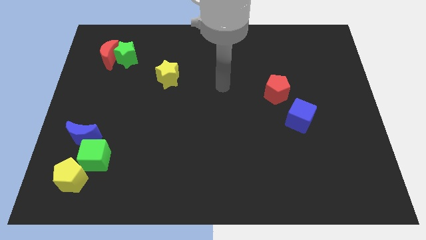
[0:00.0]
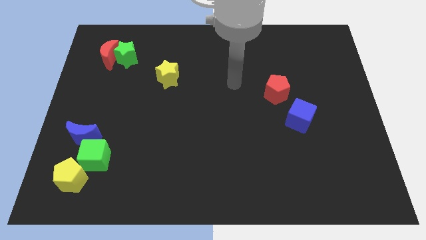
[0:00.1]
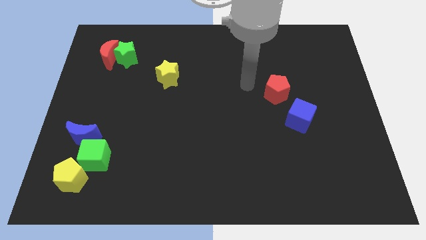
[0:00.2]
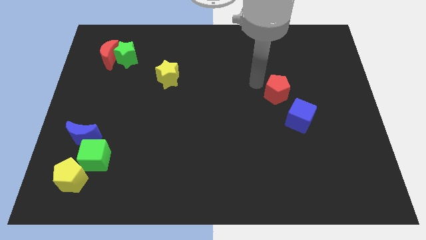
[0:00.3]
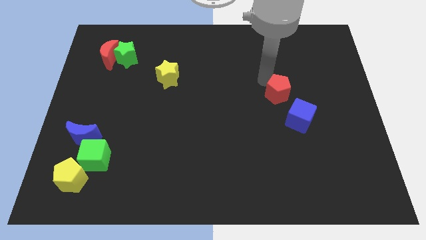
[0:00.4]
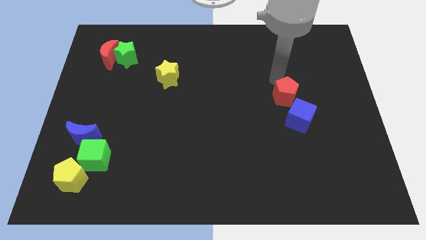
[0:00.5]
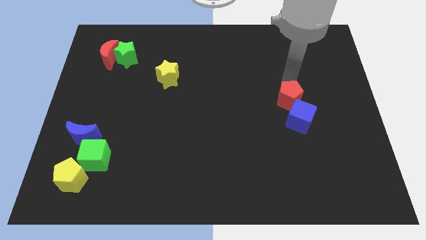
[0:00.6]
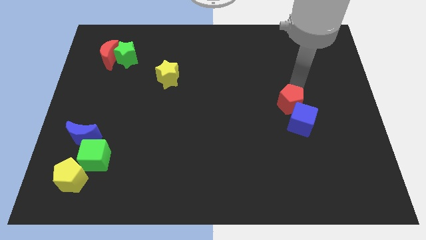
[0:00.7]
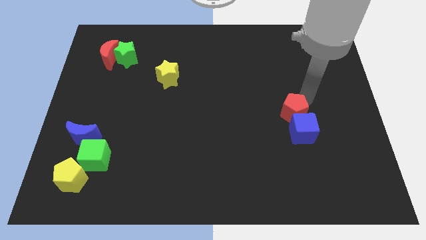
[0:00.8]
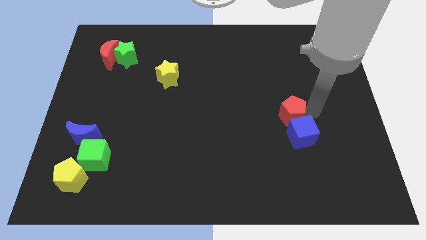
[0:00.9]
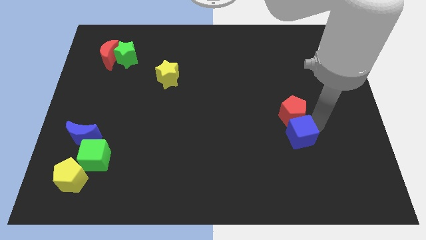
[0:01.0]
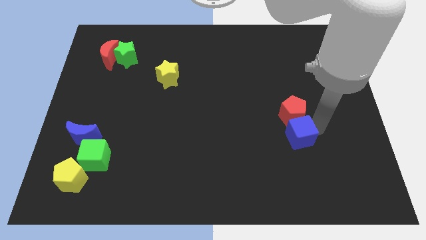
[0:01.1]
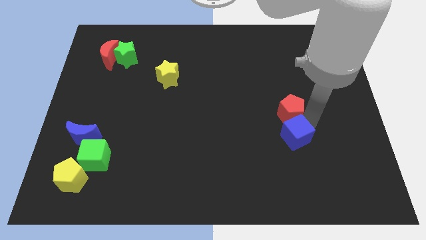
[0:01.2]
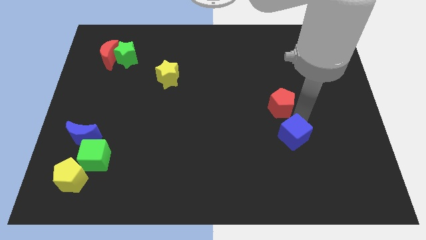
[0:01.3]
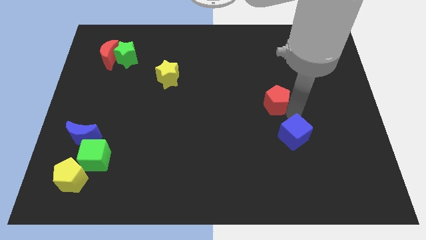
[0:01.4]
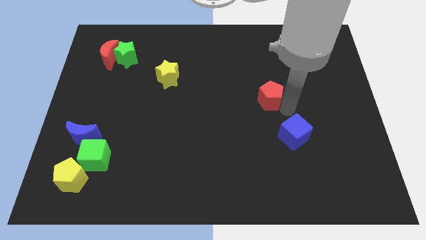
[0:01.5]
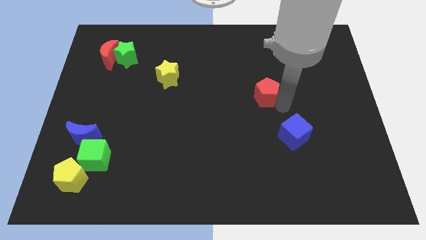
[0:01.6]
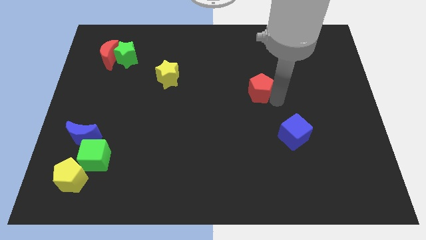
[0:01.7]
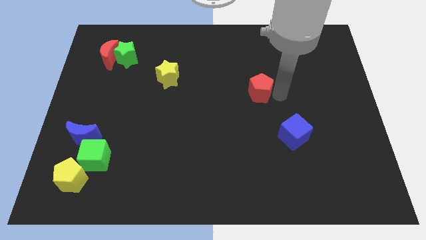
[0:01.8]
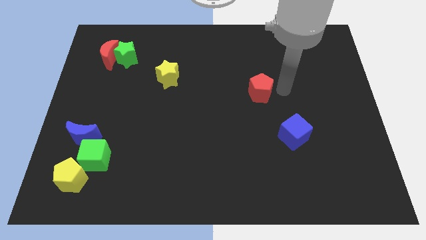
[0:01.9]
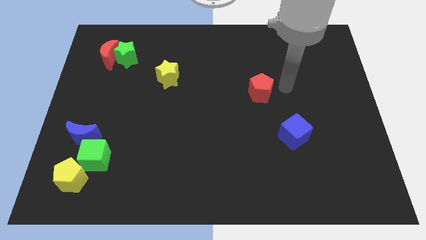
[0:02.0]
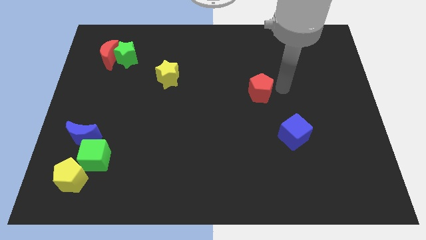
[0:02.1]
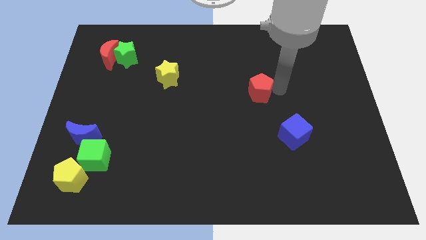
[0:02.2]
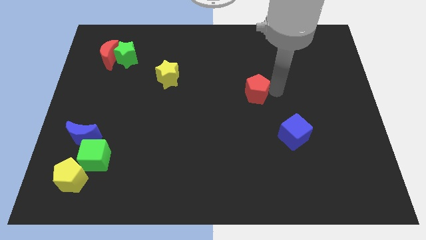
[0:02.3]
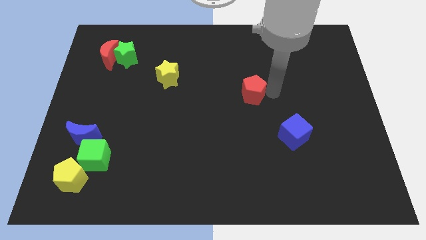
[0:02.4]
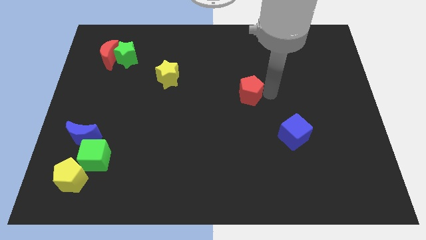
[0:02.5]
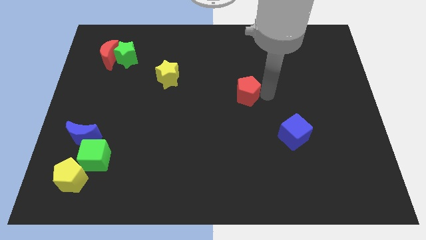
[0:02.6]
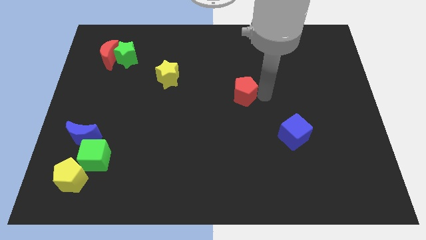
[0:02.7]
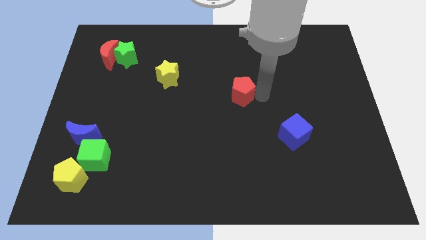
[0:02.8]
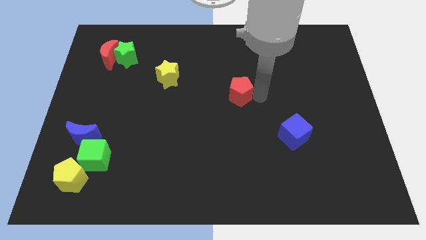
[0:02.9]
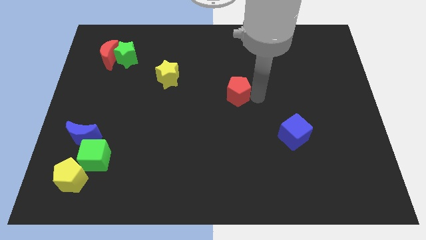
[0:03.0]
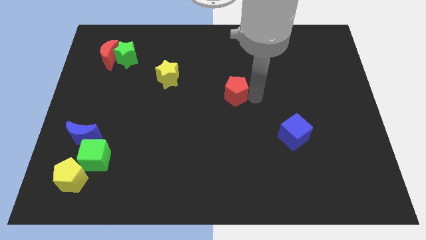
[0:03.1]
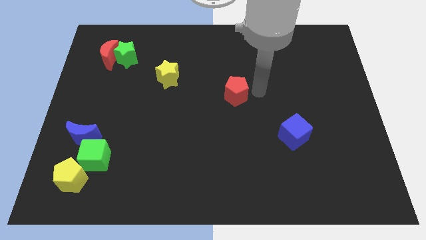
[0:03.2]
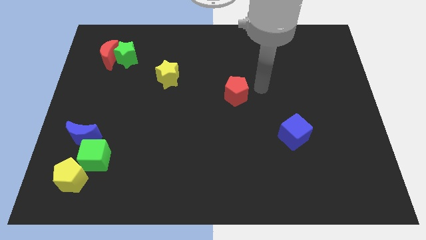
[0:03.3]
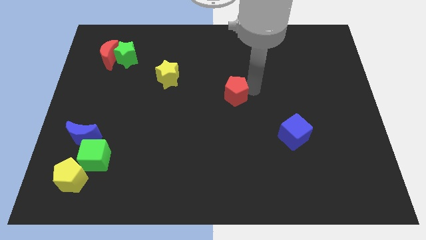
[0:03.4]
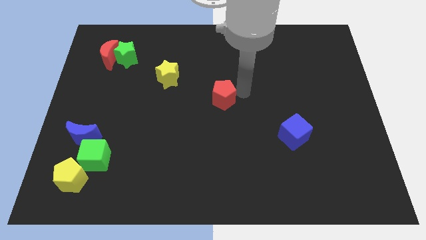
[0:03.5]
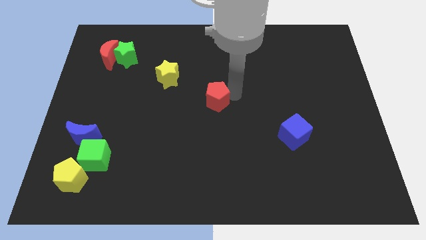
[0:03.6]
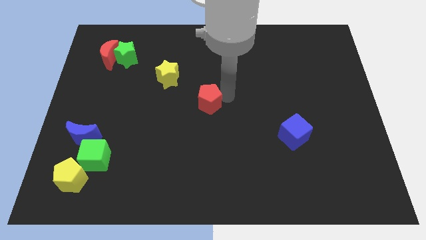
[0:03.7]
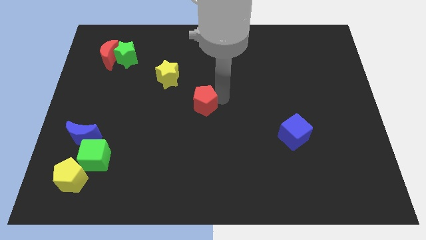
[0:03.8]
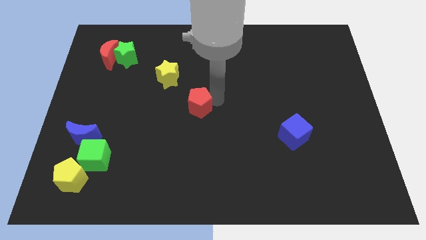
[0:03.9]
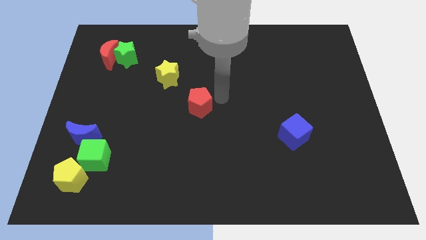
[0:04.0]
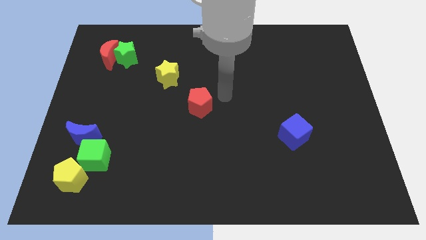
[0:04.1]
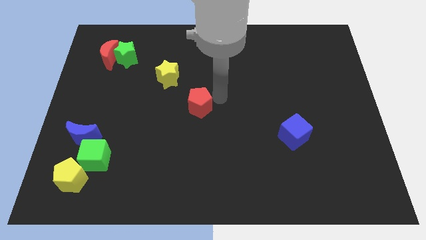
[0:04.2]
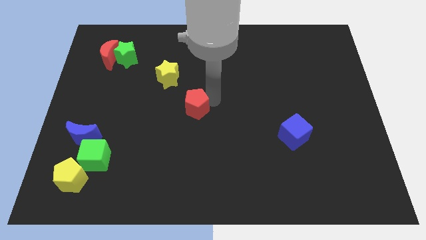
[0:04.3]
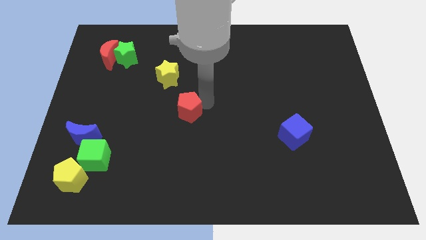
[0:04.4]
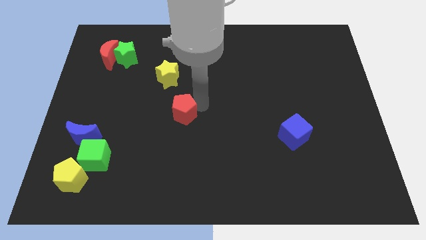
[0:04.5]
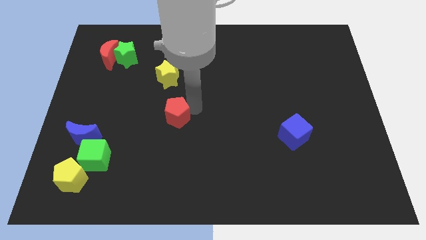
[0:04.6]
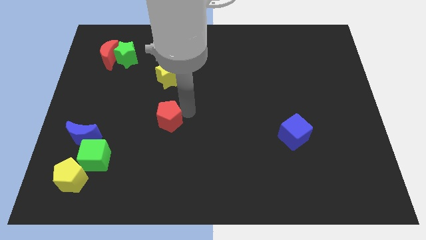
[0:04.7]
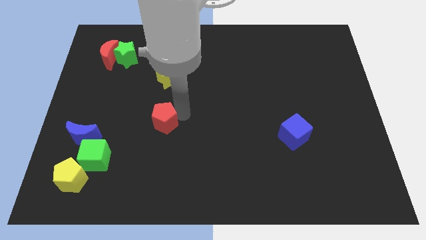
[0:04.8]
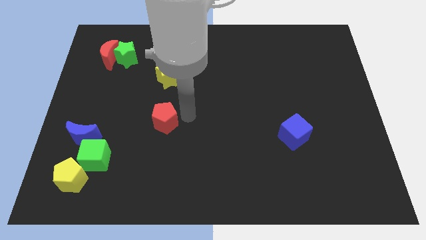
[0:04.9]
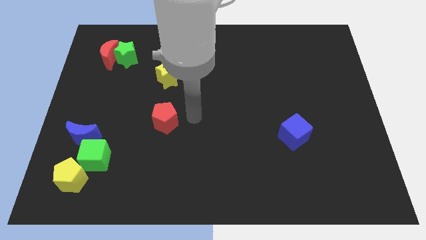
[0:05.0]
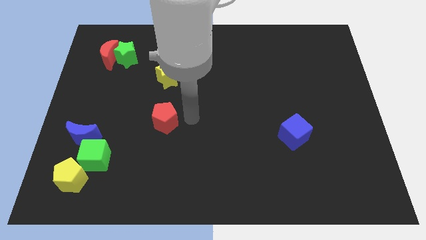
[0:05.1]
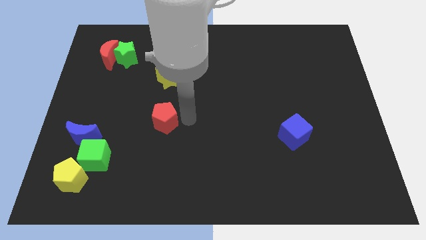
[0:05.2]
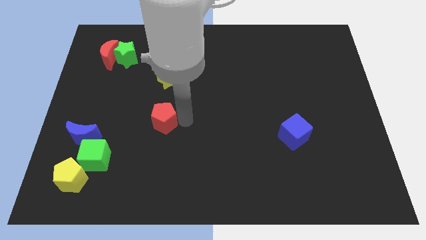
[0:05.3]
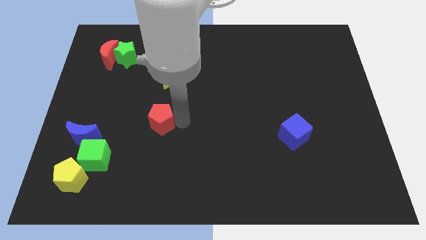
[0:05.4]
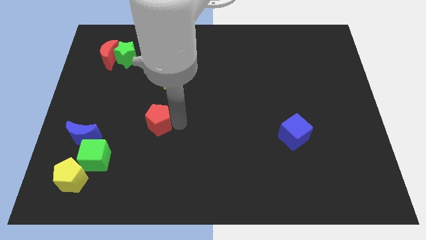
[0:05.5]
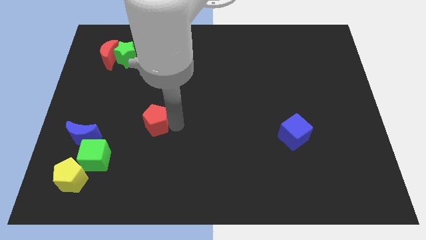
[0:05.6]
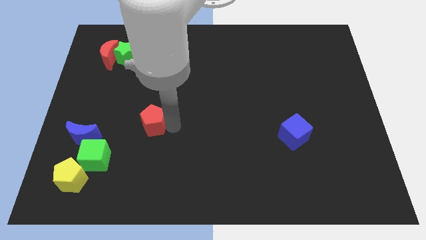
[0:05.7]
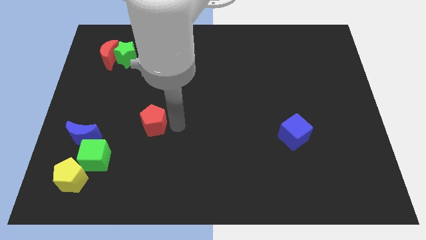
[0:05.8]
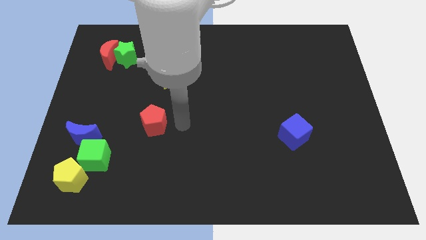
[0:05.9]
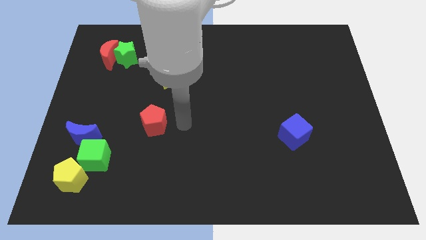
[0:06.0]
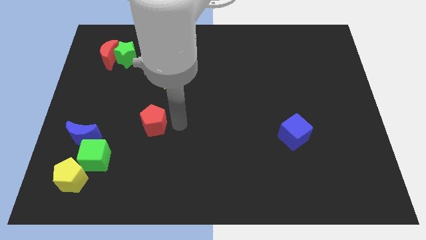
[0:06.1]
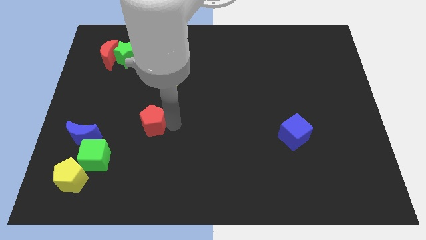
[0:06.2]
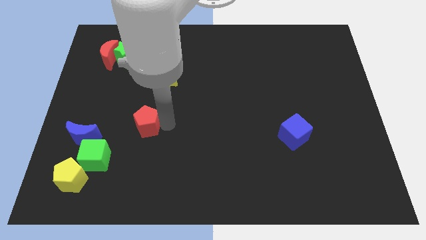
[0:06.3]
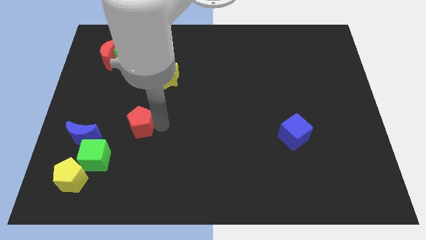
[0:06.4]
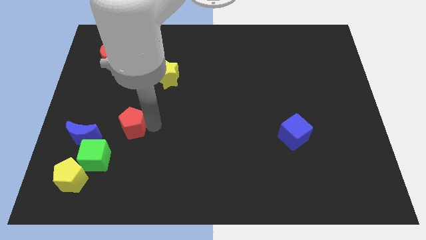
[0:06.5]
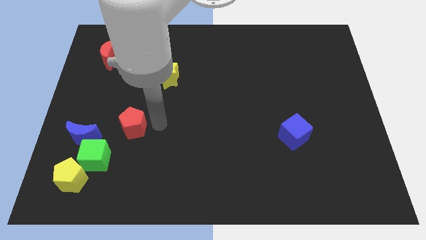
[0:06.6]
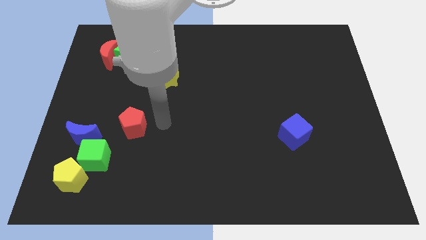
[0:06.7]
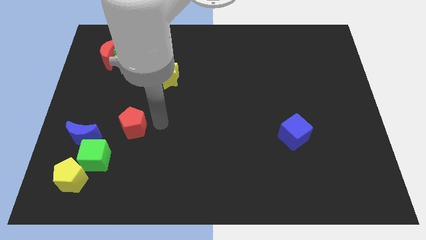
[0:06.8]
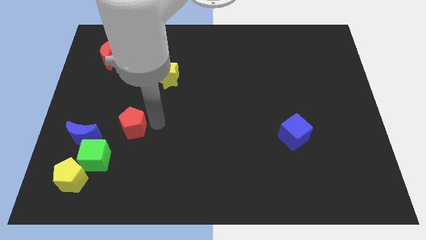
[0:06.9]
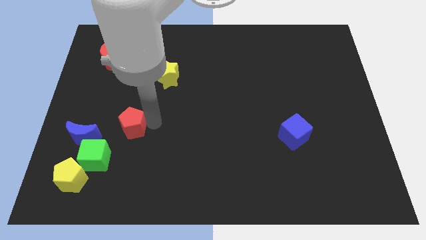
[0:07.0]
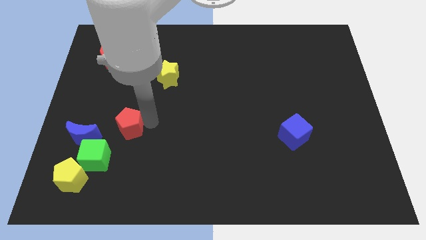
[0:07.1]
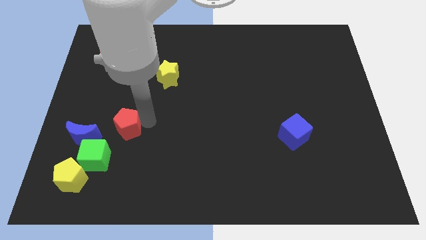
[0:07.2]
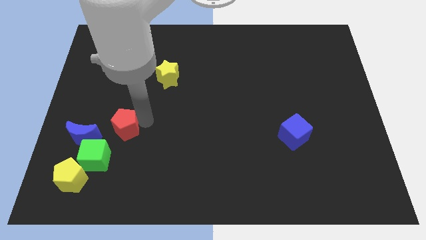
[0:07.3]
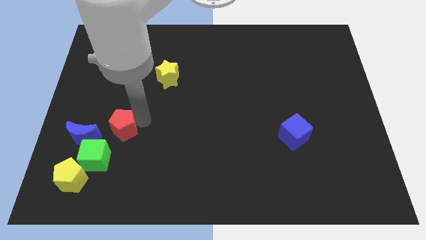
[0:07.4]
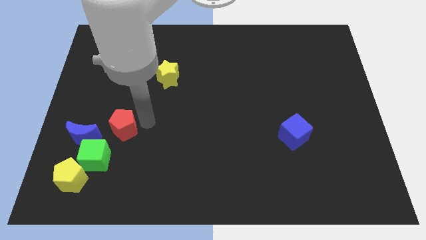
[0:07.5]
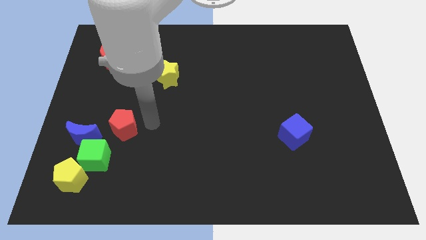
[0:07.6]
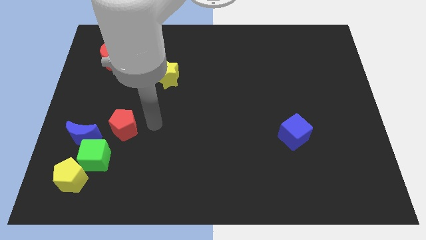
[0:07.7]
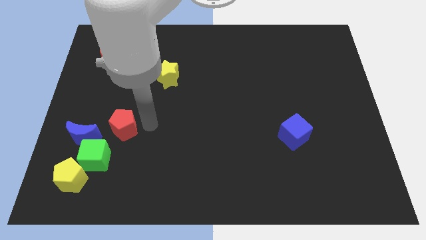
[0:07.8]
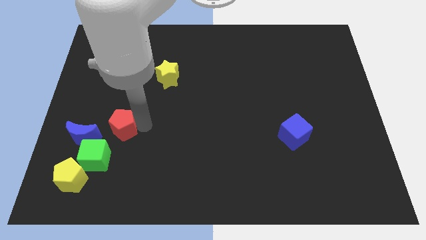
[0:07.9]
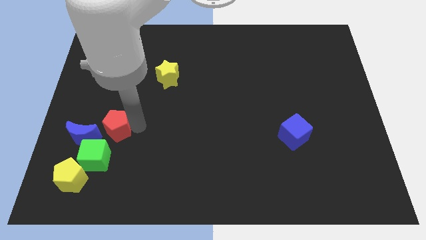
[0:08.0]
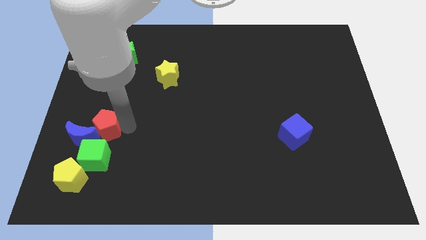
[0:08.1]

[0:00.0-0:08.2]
move the red pentagon to the blue moon
